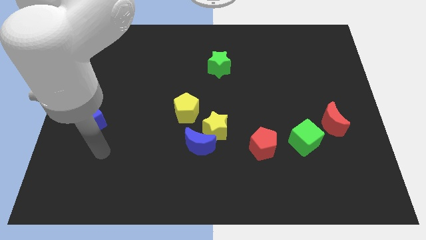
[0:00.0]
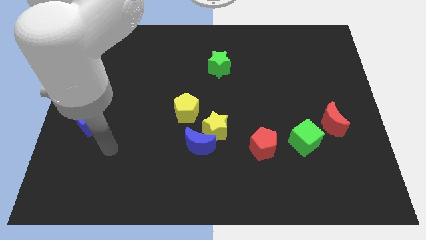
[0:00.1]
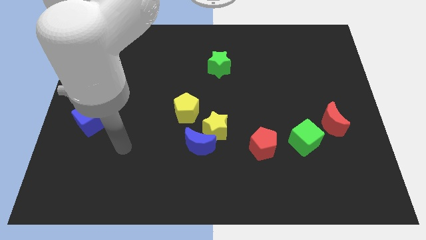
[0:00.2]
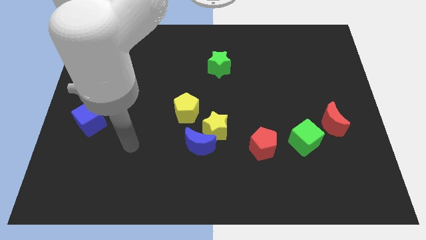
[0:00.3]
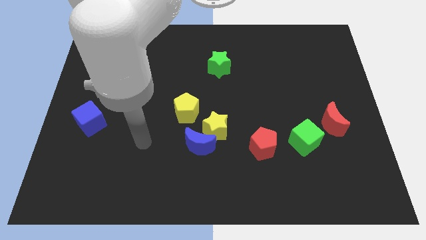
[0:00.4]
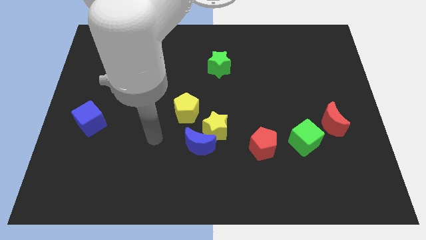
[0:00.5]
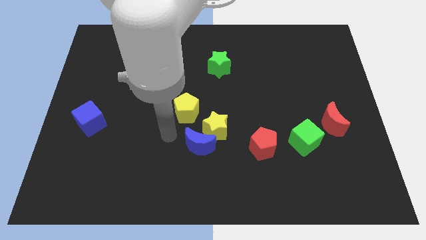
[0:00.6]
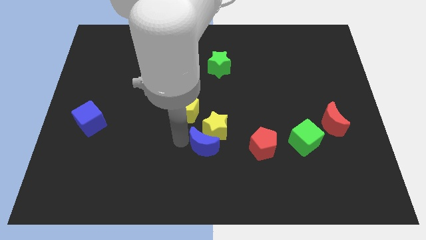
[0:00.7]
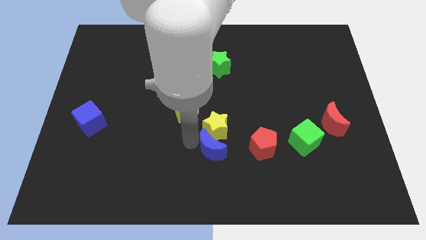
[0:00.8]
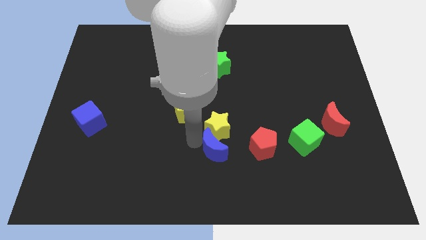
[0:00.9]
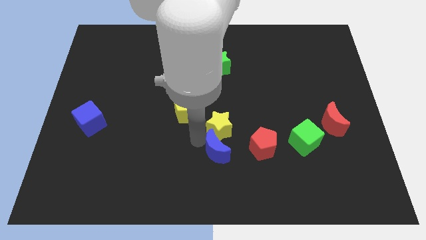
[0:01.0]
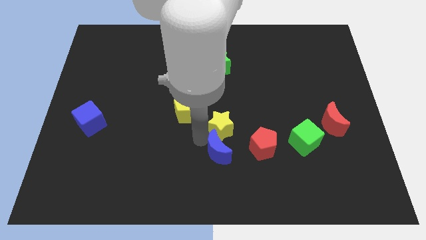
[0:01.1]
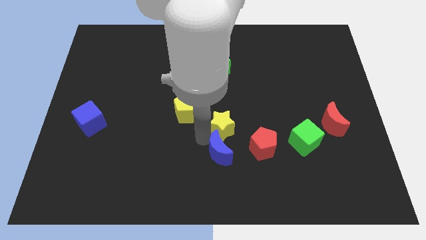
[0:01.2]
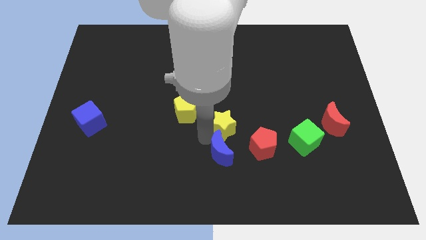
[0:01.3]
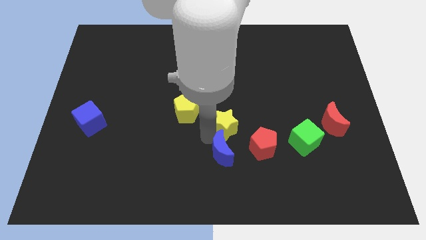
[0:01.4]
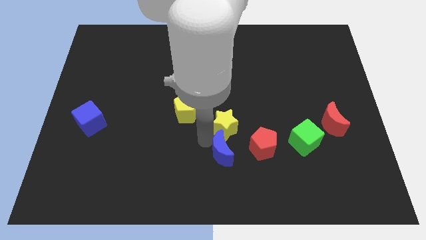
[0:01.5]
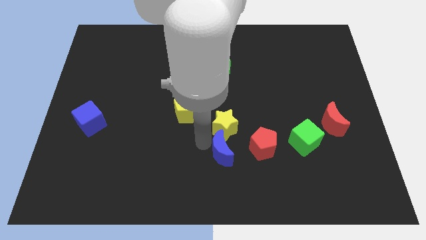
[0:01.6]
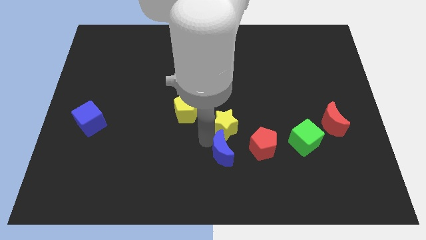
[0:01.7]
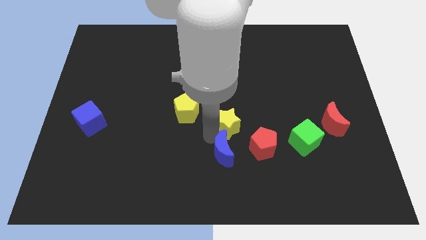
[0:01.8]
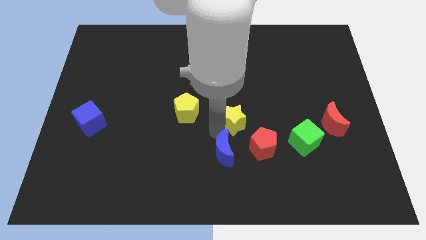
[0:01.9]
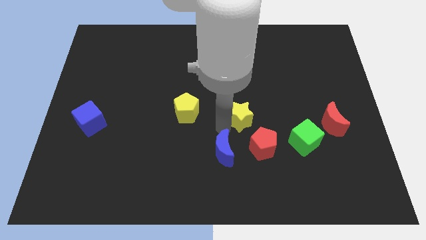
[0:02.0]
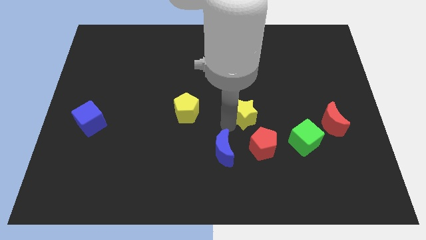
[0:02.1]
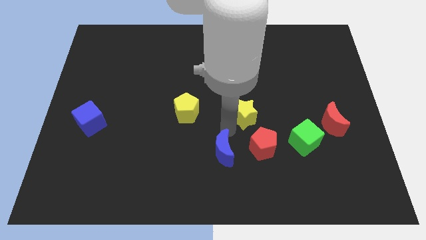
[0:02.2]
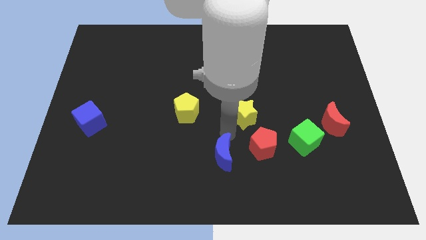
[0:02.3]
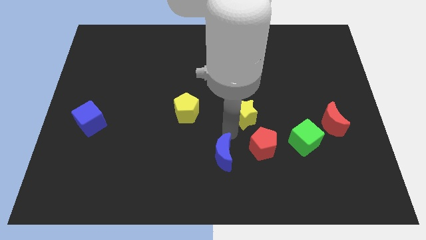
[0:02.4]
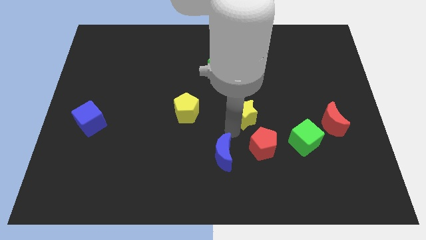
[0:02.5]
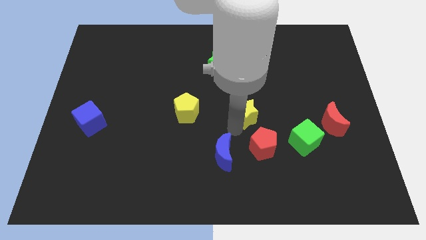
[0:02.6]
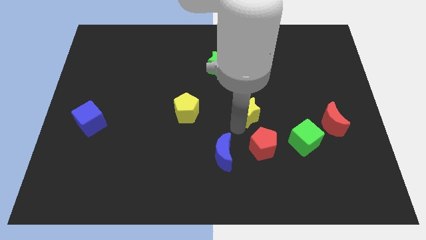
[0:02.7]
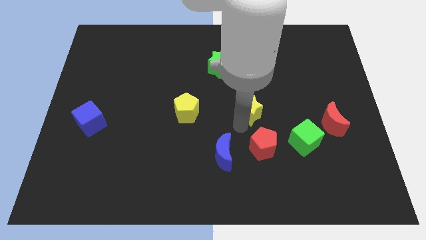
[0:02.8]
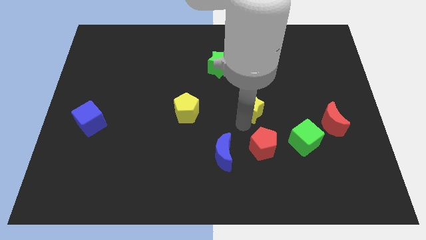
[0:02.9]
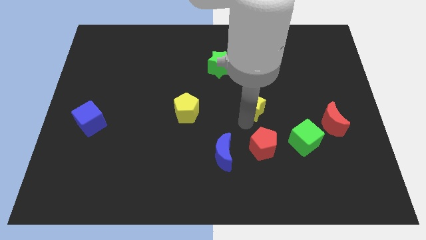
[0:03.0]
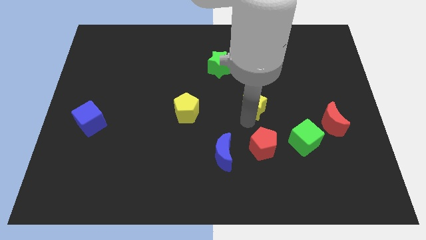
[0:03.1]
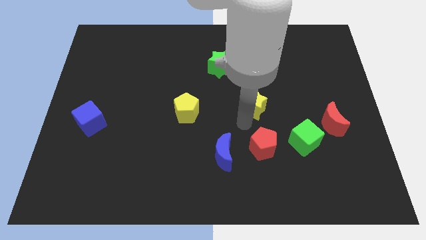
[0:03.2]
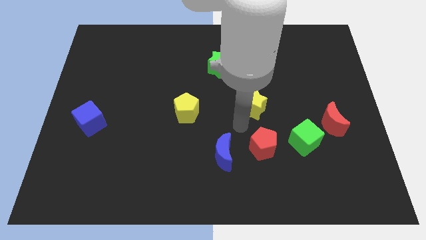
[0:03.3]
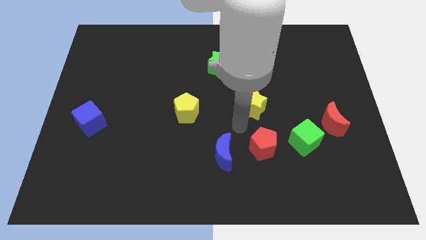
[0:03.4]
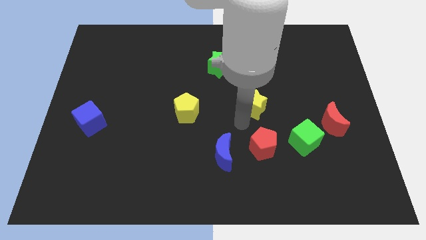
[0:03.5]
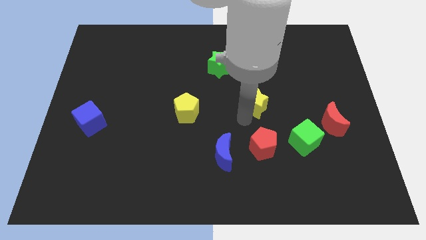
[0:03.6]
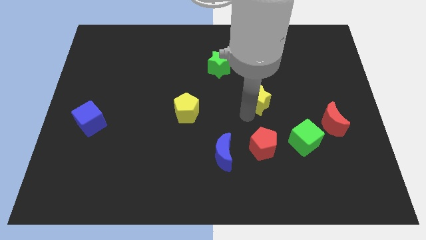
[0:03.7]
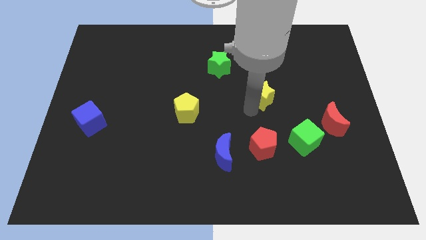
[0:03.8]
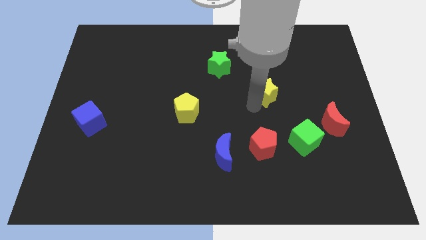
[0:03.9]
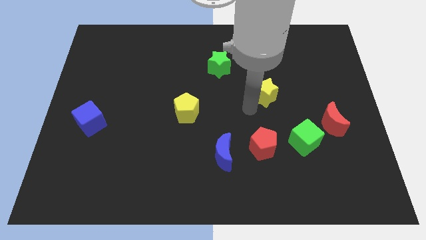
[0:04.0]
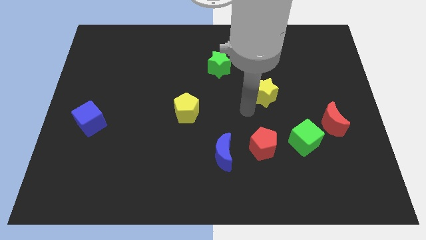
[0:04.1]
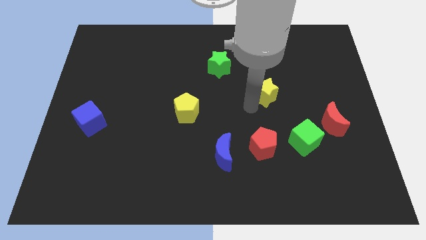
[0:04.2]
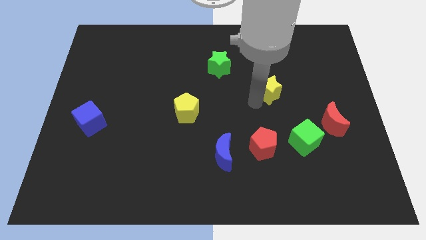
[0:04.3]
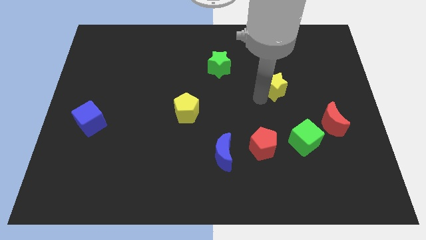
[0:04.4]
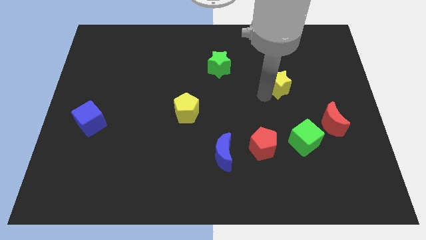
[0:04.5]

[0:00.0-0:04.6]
move the yellow star upwards and right

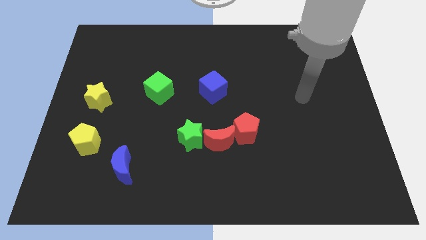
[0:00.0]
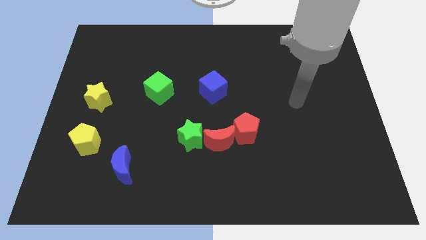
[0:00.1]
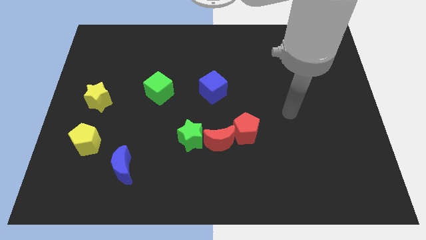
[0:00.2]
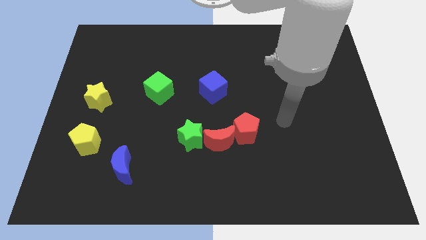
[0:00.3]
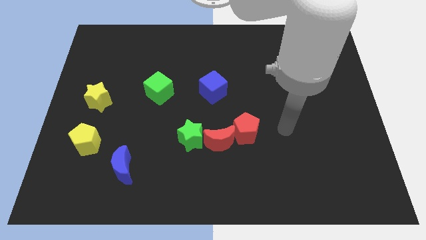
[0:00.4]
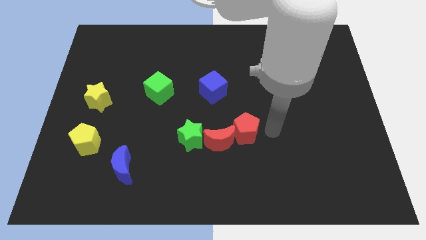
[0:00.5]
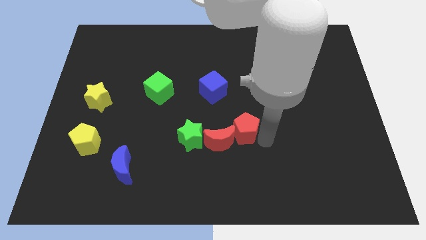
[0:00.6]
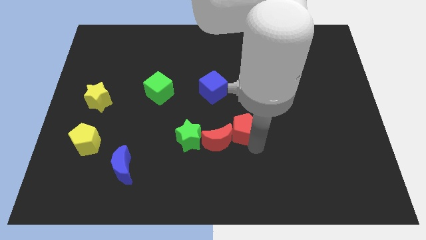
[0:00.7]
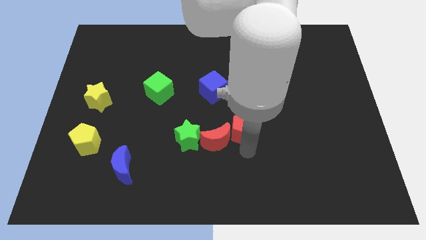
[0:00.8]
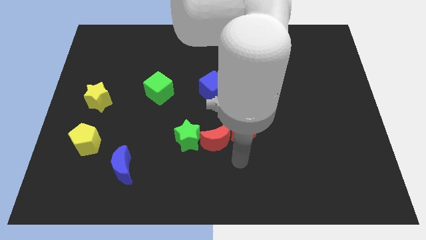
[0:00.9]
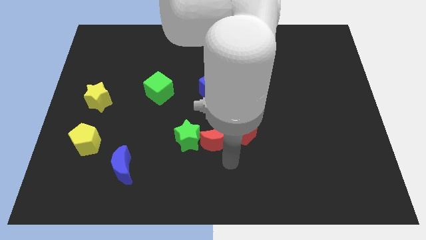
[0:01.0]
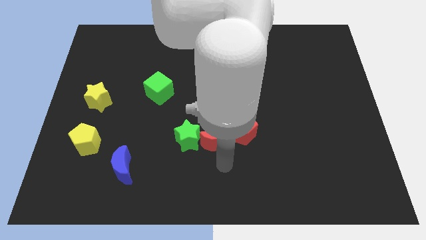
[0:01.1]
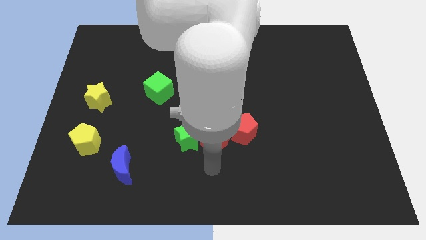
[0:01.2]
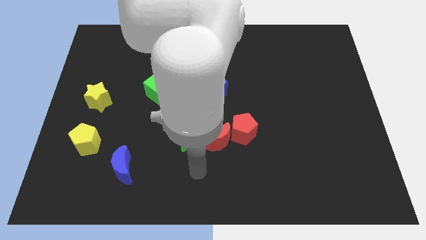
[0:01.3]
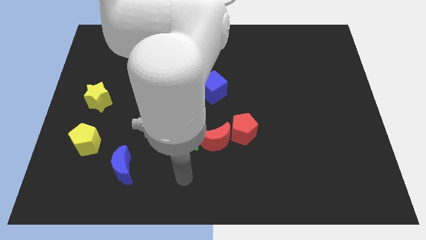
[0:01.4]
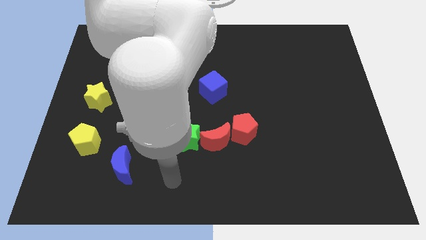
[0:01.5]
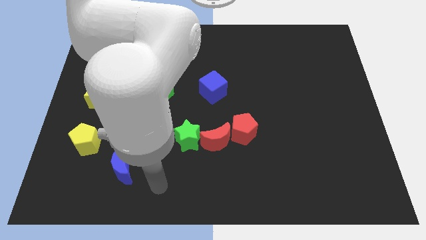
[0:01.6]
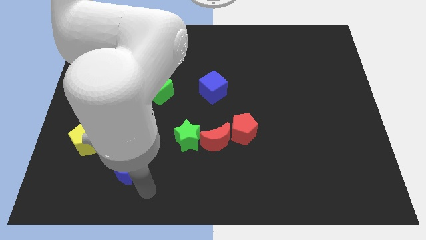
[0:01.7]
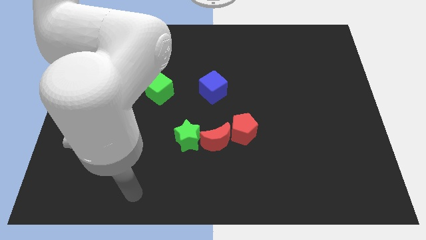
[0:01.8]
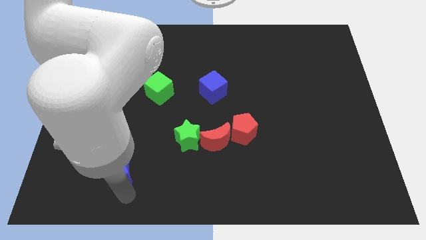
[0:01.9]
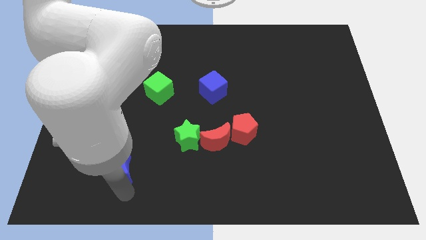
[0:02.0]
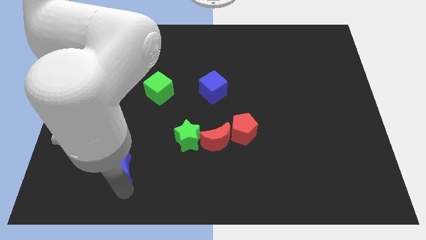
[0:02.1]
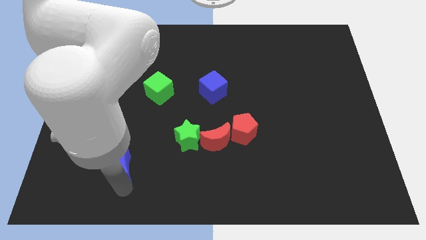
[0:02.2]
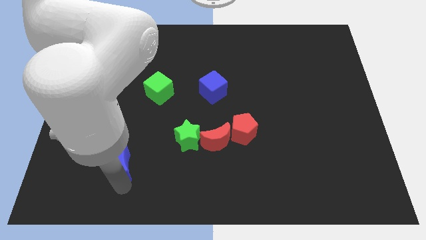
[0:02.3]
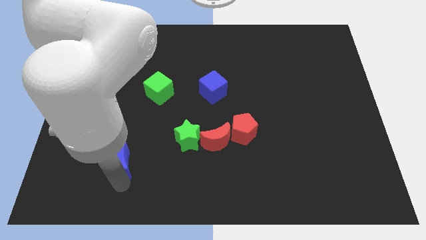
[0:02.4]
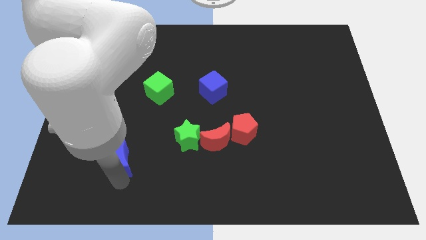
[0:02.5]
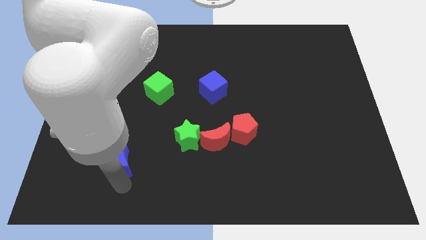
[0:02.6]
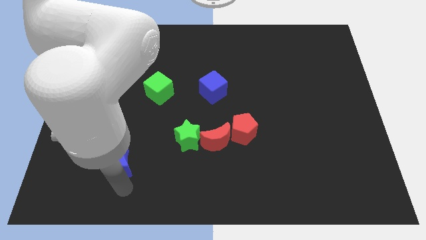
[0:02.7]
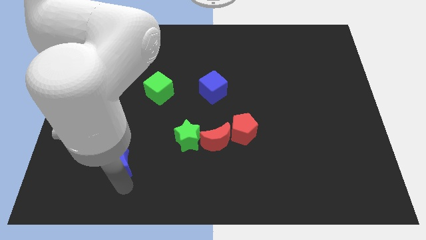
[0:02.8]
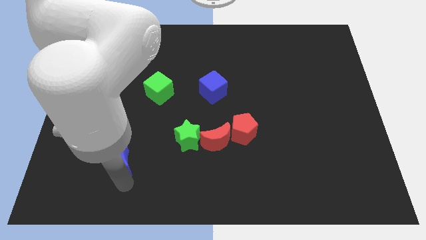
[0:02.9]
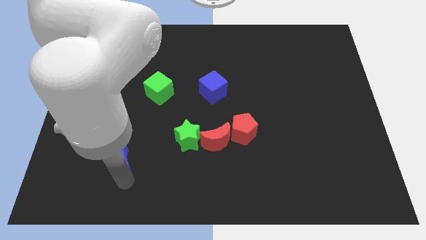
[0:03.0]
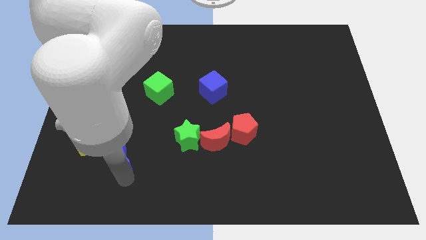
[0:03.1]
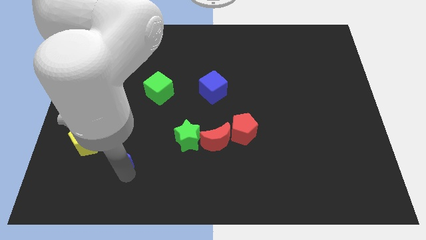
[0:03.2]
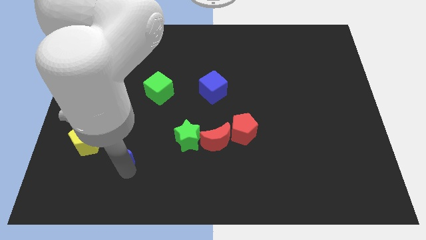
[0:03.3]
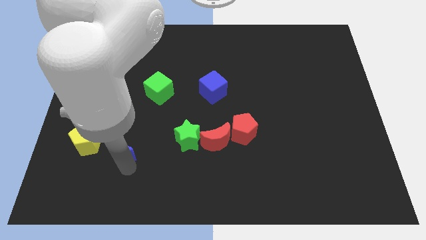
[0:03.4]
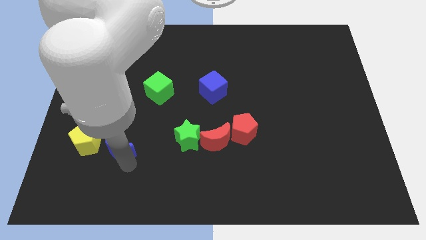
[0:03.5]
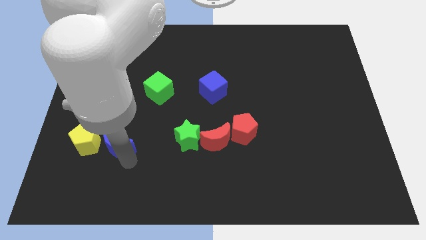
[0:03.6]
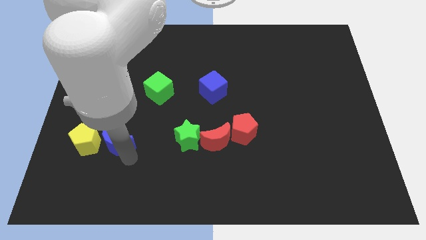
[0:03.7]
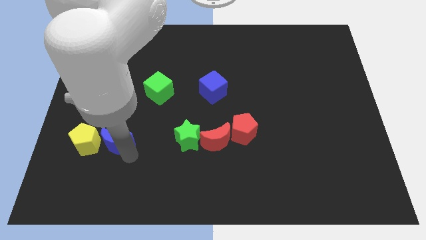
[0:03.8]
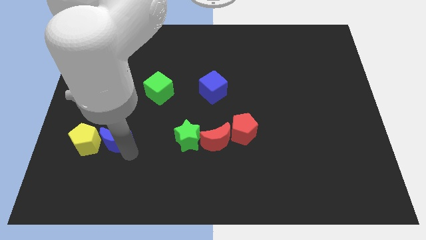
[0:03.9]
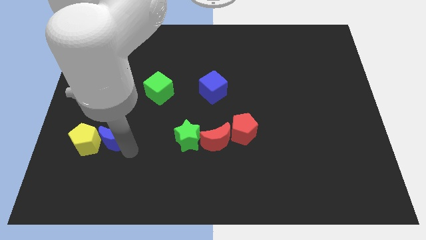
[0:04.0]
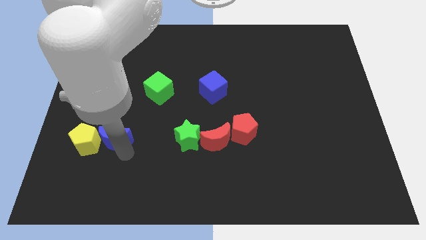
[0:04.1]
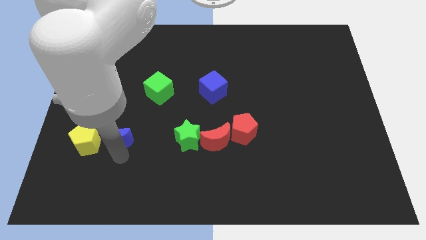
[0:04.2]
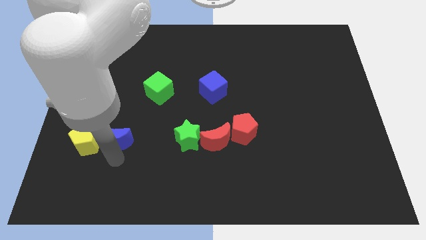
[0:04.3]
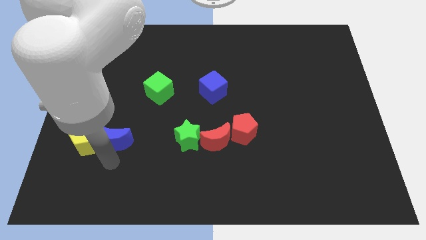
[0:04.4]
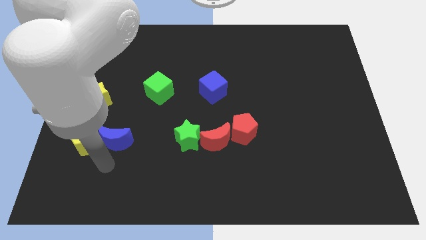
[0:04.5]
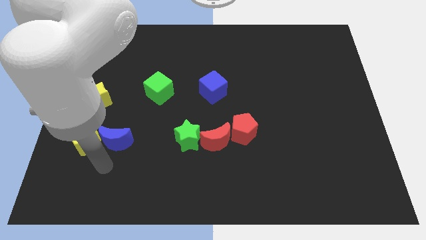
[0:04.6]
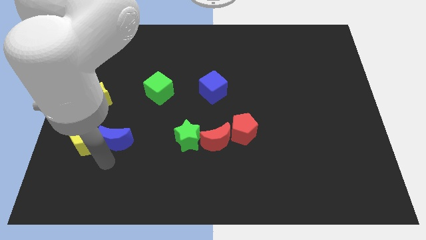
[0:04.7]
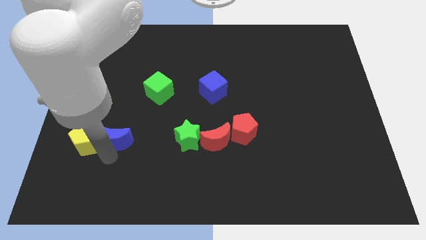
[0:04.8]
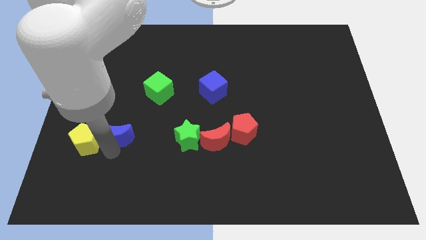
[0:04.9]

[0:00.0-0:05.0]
slightly slide the blue moon up
